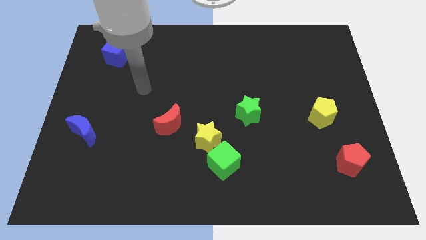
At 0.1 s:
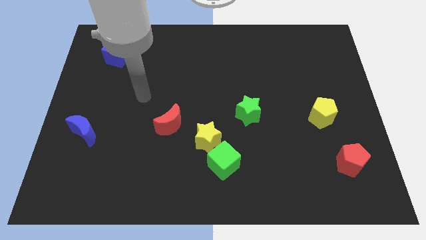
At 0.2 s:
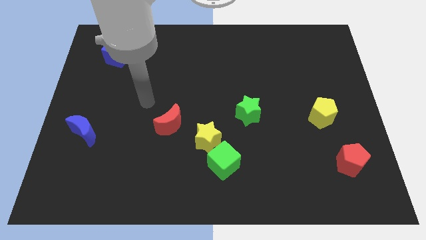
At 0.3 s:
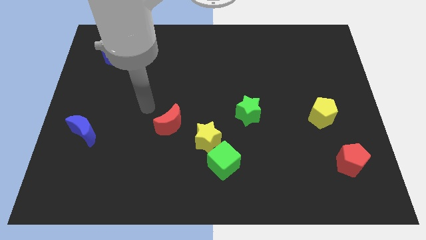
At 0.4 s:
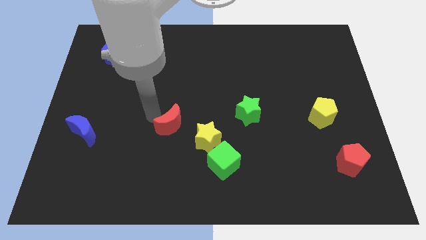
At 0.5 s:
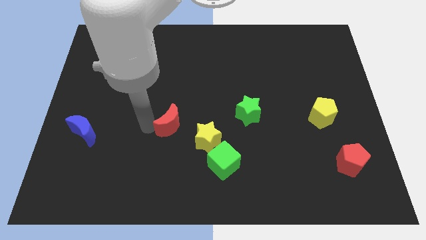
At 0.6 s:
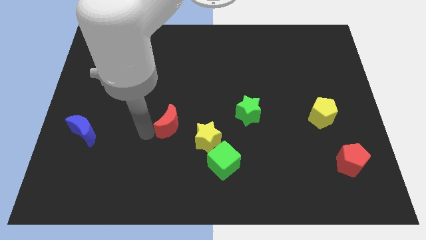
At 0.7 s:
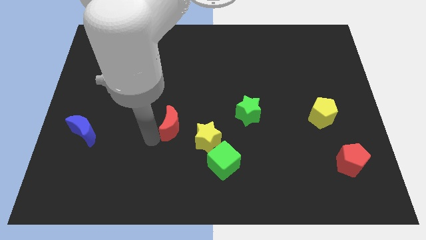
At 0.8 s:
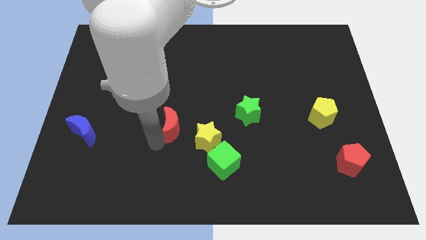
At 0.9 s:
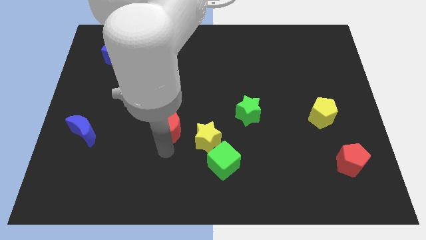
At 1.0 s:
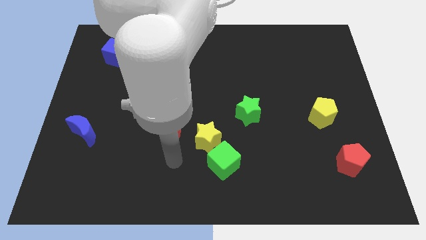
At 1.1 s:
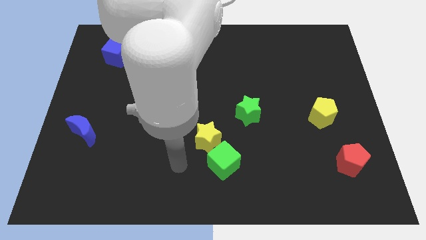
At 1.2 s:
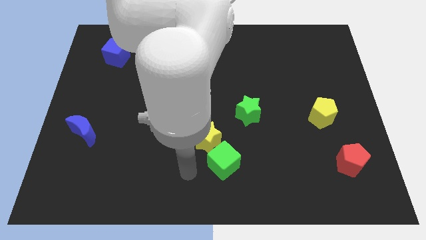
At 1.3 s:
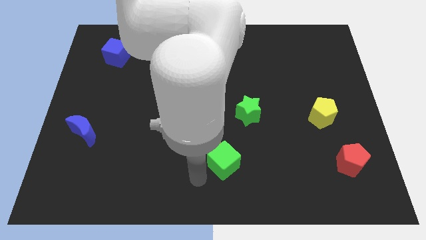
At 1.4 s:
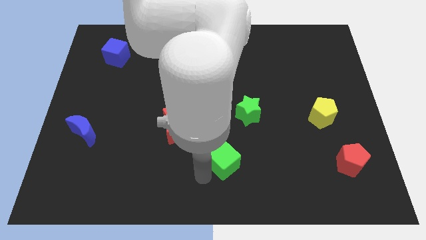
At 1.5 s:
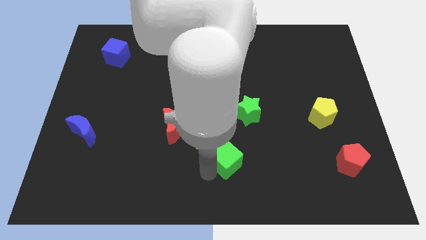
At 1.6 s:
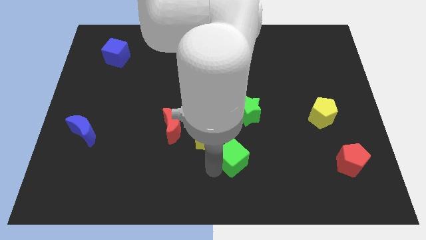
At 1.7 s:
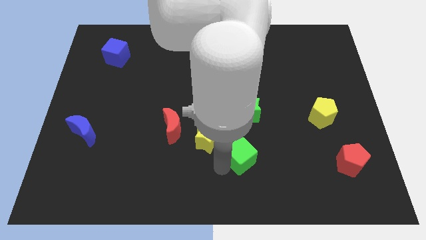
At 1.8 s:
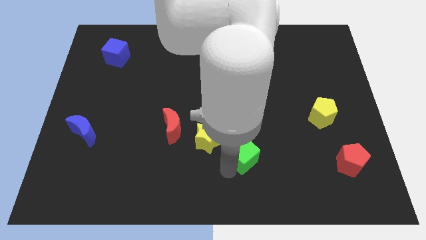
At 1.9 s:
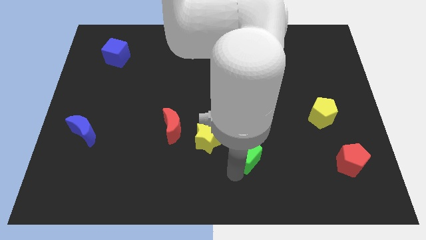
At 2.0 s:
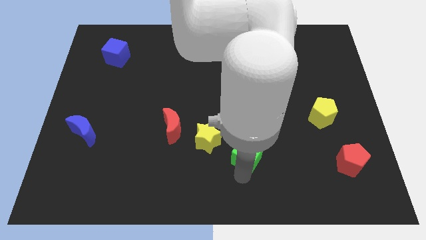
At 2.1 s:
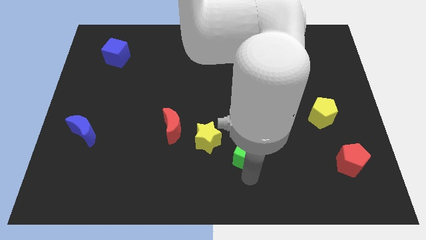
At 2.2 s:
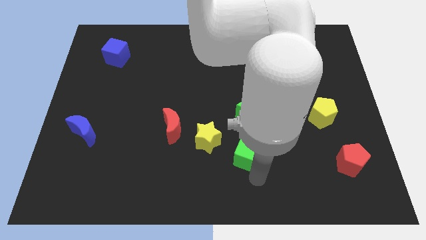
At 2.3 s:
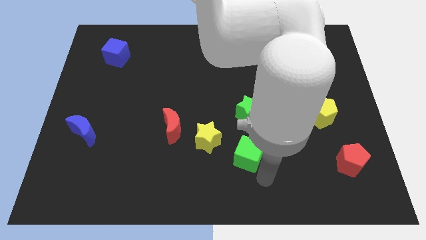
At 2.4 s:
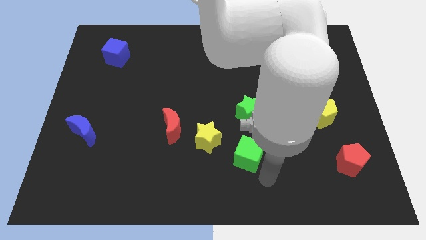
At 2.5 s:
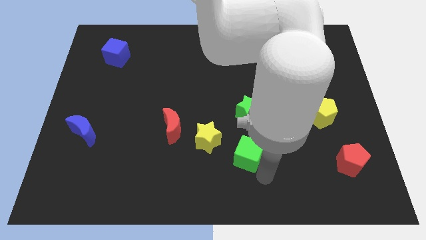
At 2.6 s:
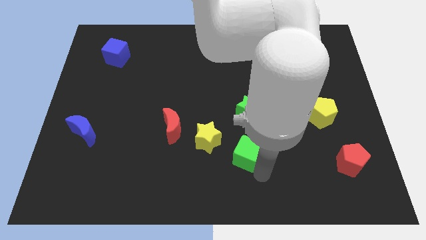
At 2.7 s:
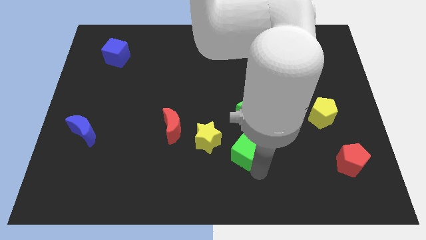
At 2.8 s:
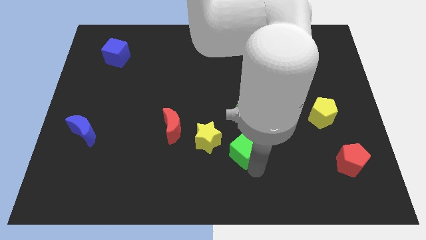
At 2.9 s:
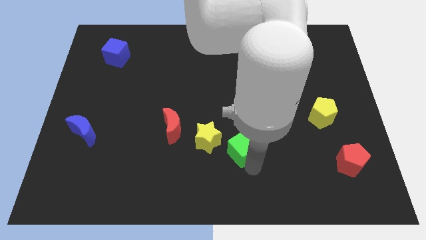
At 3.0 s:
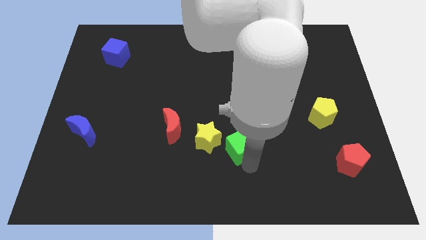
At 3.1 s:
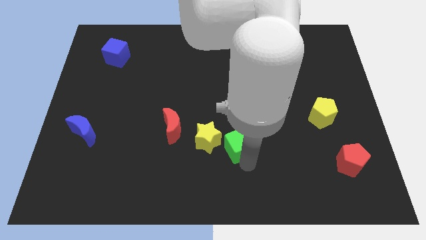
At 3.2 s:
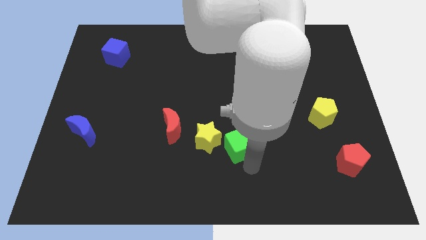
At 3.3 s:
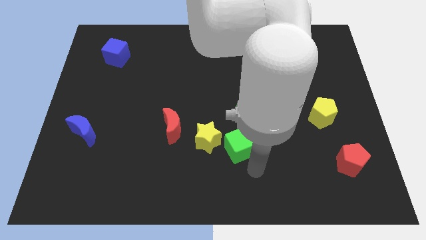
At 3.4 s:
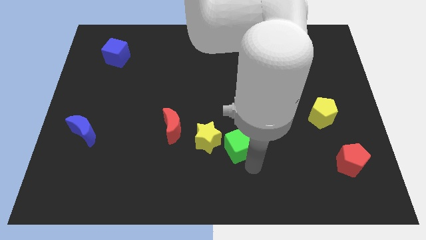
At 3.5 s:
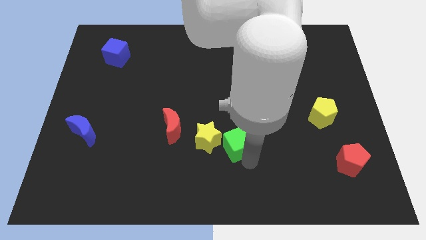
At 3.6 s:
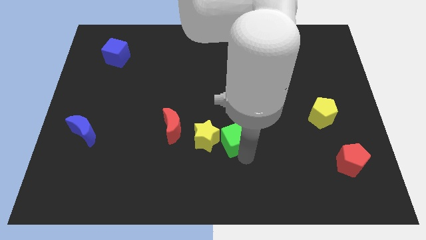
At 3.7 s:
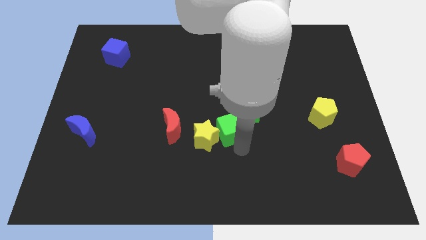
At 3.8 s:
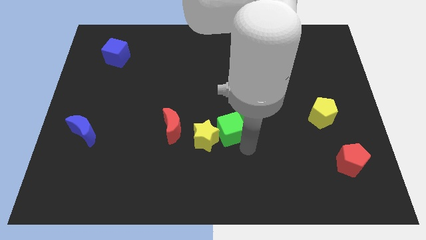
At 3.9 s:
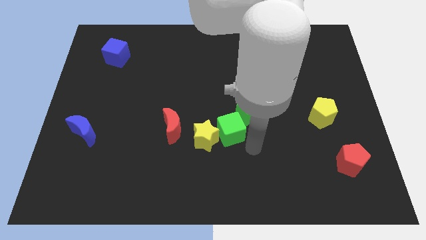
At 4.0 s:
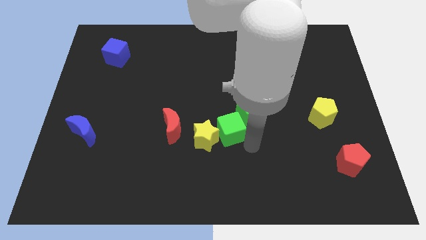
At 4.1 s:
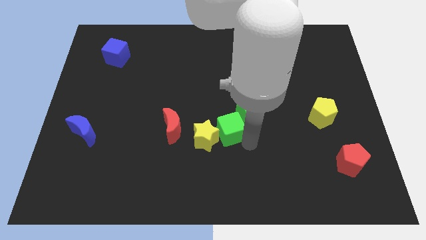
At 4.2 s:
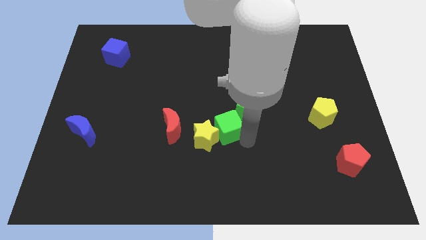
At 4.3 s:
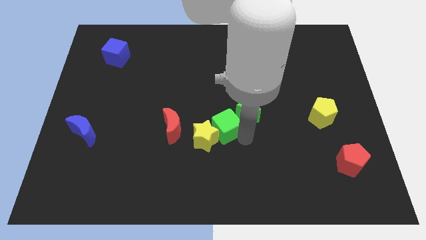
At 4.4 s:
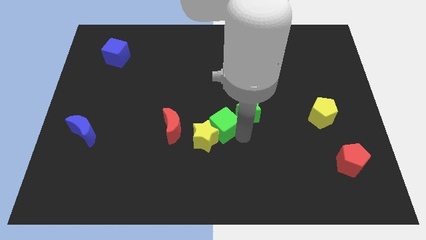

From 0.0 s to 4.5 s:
slide the green cube to the top of the yellow star

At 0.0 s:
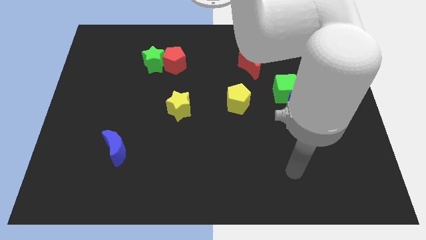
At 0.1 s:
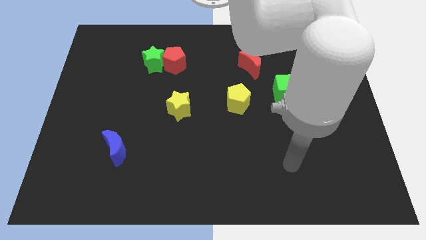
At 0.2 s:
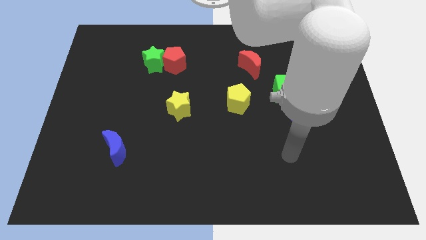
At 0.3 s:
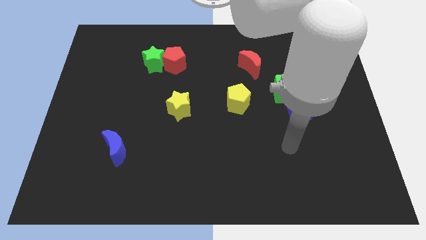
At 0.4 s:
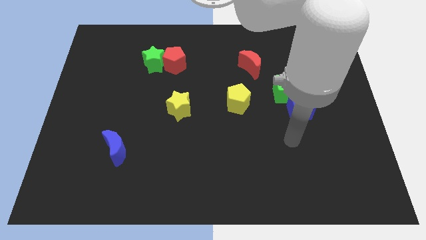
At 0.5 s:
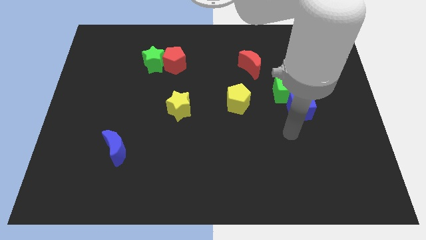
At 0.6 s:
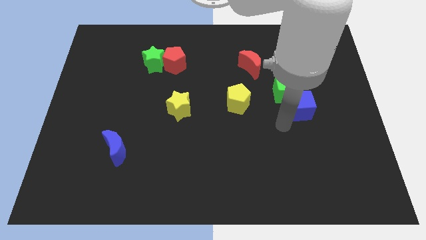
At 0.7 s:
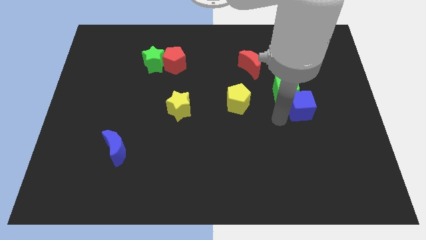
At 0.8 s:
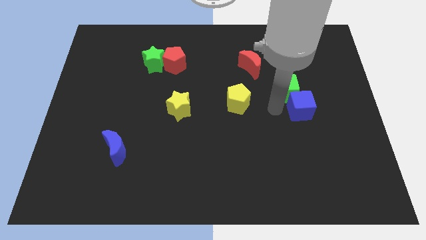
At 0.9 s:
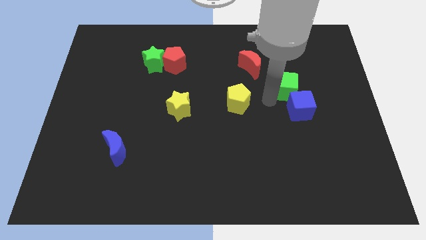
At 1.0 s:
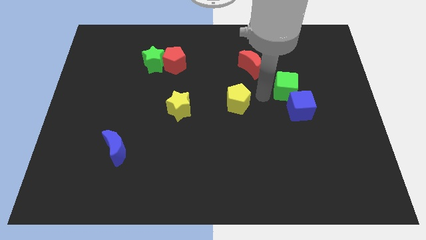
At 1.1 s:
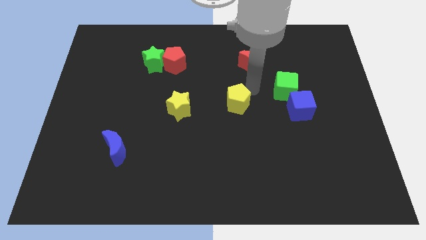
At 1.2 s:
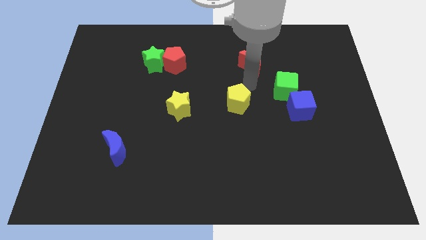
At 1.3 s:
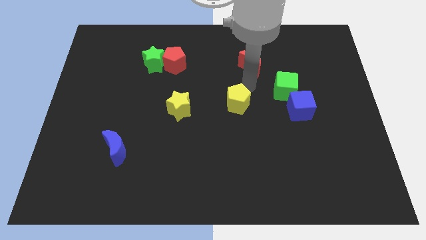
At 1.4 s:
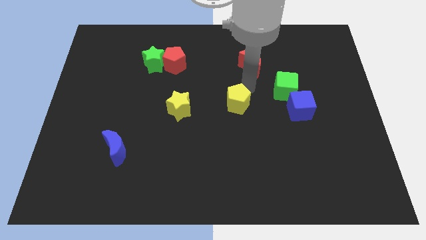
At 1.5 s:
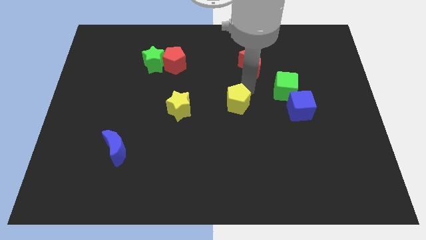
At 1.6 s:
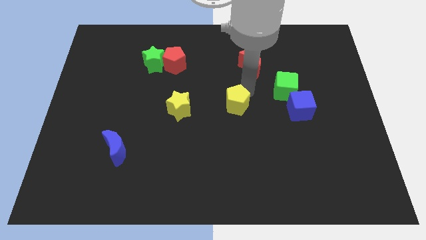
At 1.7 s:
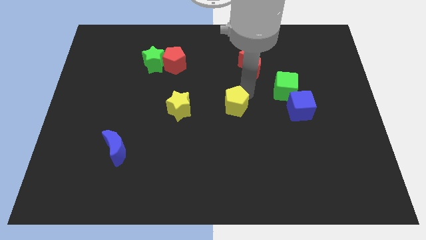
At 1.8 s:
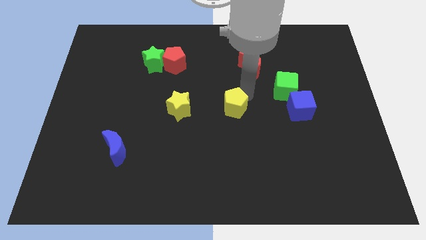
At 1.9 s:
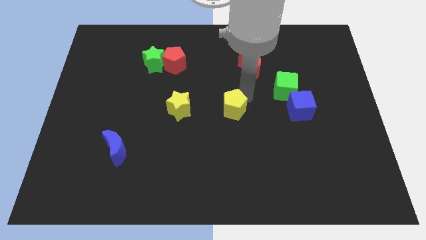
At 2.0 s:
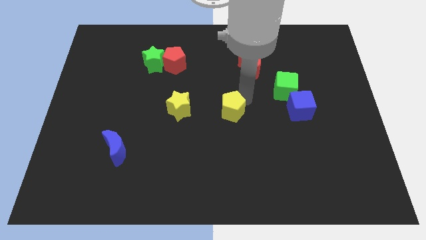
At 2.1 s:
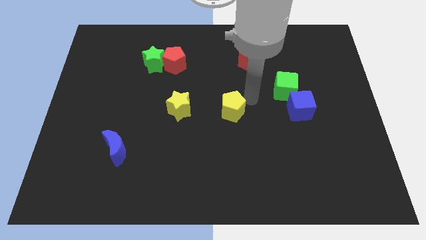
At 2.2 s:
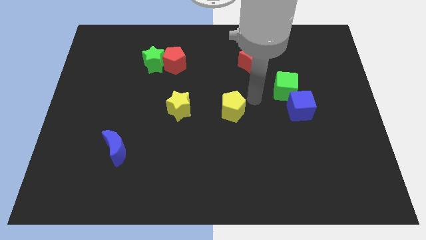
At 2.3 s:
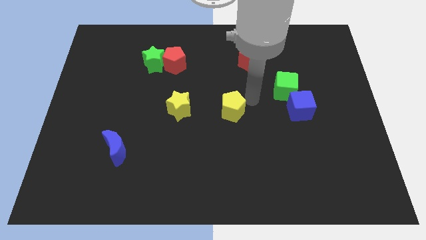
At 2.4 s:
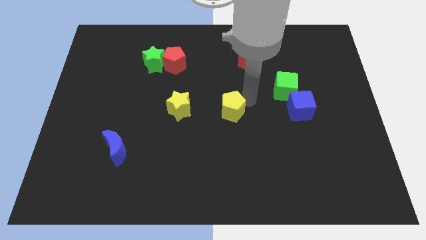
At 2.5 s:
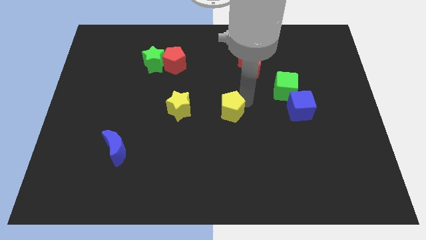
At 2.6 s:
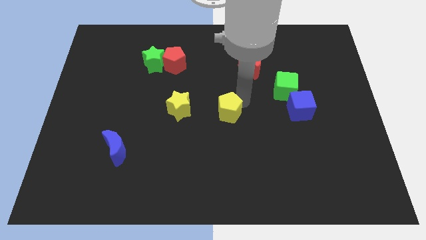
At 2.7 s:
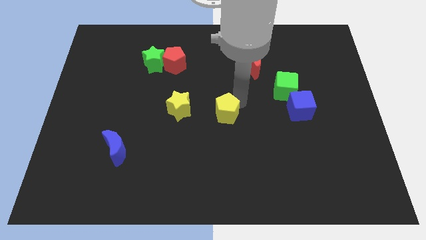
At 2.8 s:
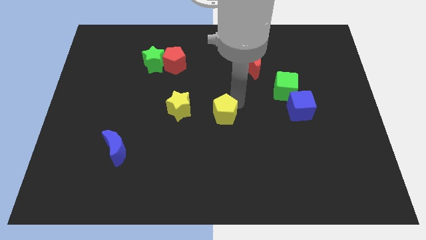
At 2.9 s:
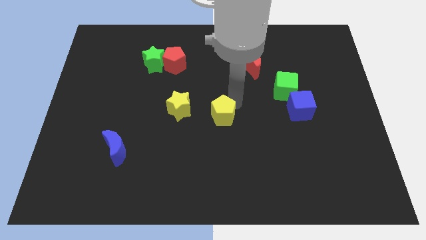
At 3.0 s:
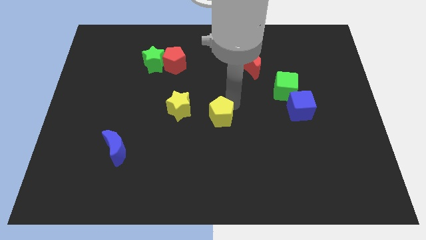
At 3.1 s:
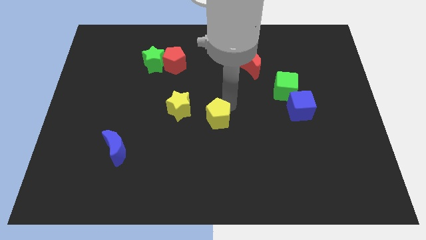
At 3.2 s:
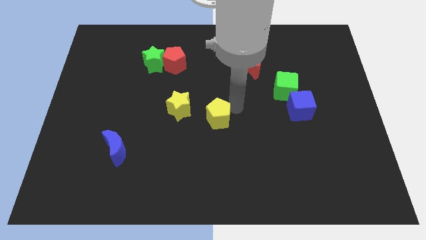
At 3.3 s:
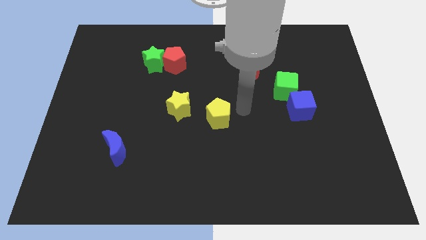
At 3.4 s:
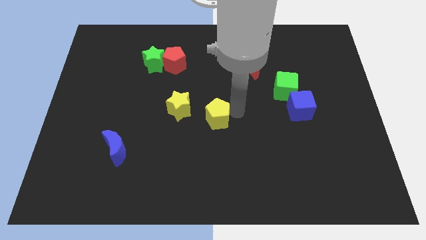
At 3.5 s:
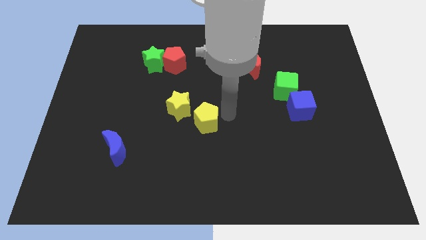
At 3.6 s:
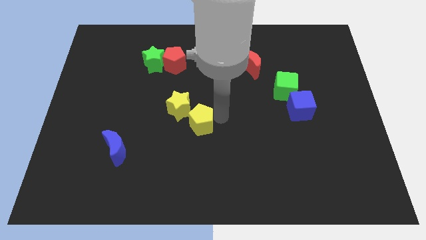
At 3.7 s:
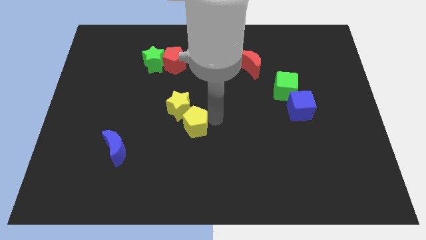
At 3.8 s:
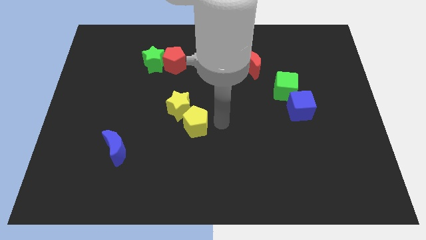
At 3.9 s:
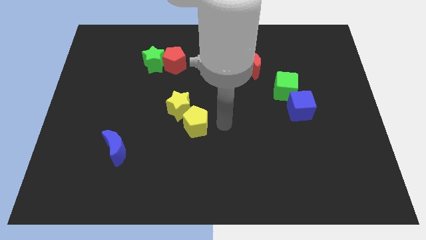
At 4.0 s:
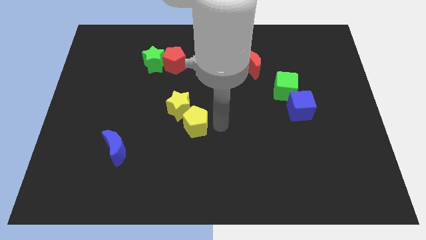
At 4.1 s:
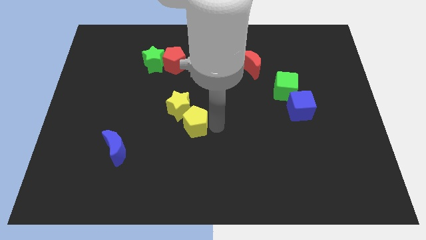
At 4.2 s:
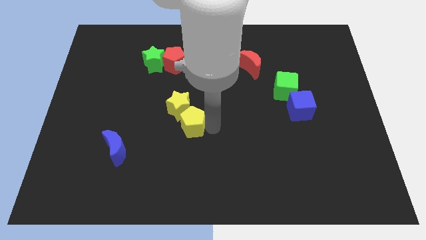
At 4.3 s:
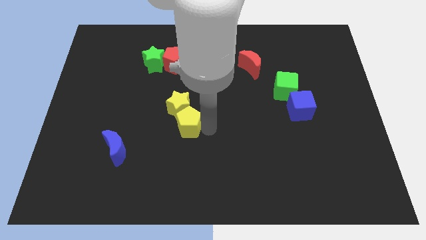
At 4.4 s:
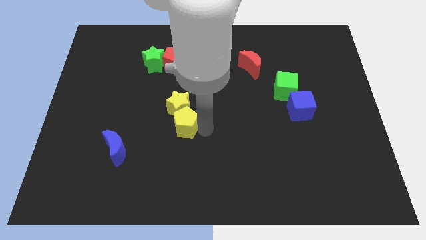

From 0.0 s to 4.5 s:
put the yellow pentagon diagonally down and to the left of the yellow star
